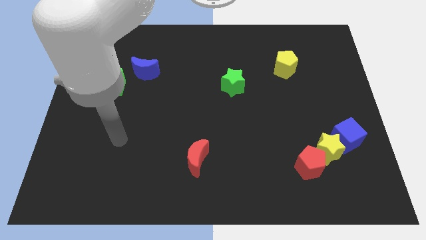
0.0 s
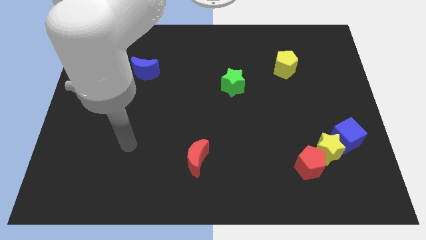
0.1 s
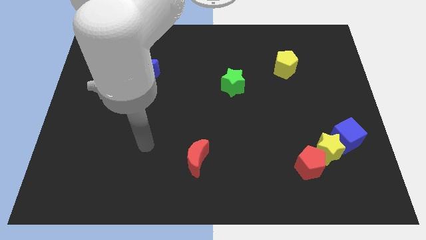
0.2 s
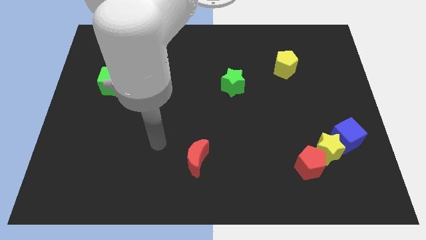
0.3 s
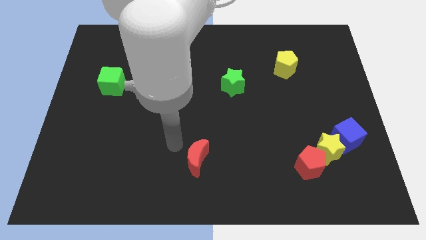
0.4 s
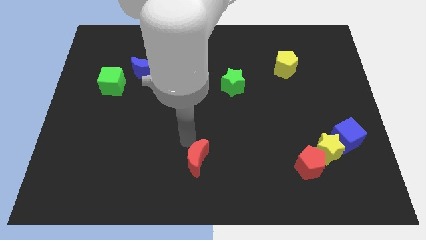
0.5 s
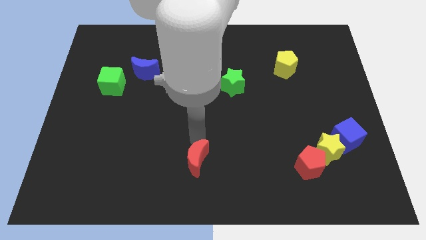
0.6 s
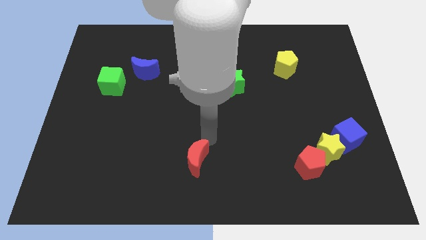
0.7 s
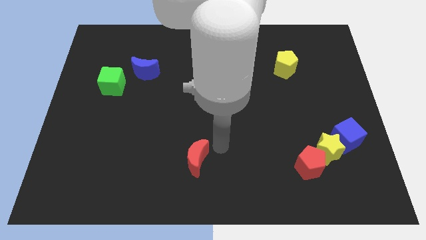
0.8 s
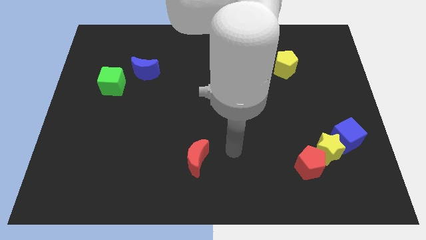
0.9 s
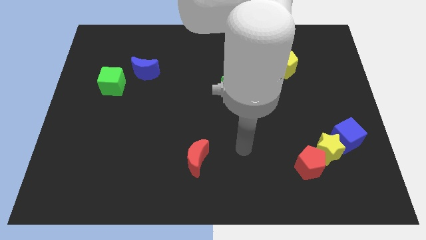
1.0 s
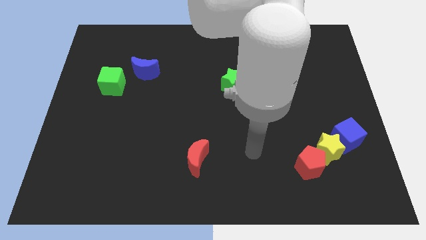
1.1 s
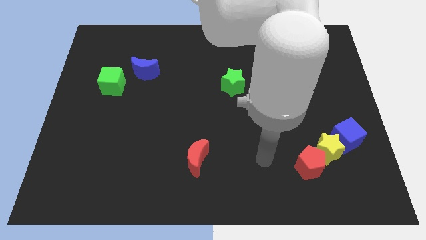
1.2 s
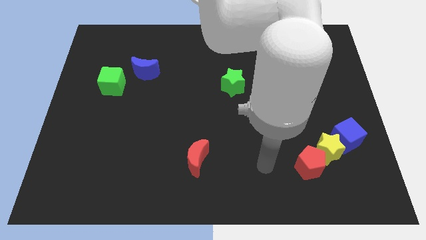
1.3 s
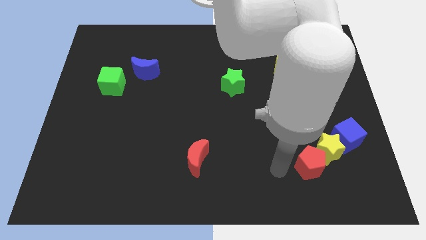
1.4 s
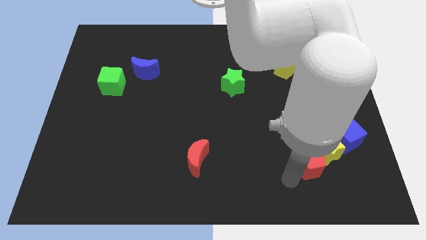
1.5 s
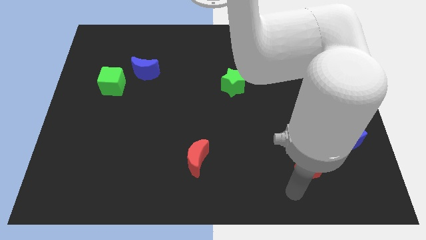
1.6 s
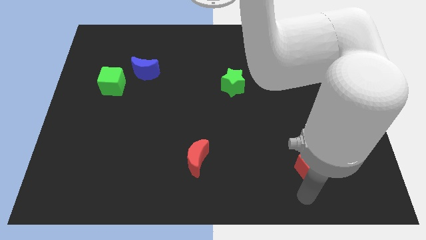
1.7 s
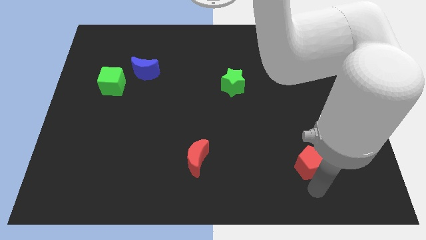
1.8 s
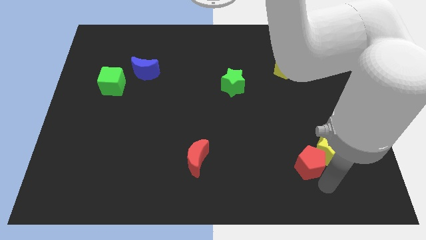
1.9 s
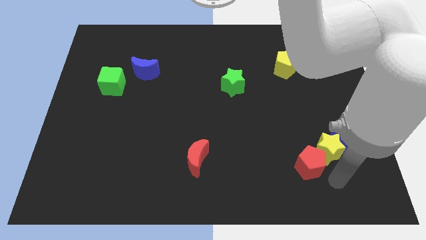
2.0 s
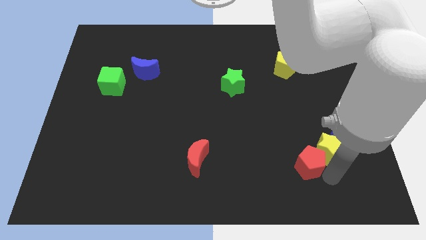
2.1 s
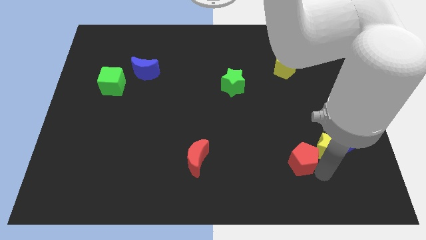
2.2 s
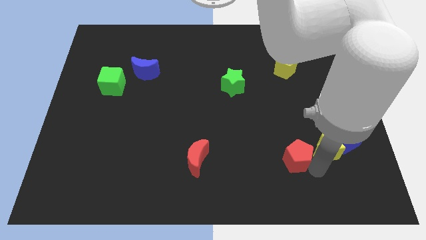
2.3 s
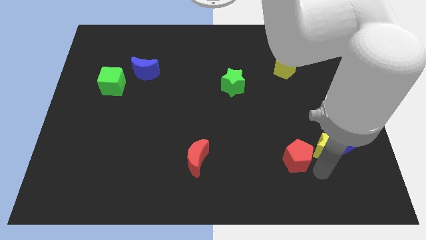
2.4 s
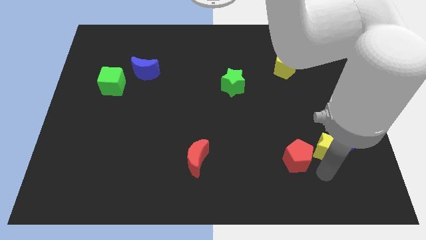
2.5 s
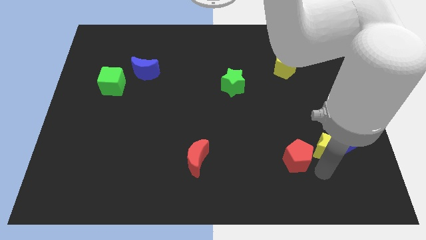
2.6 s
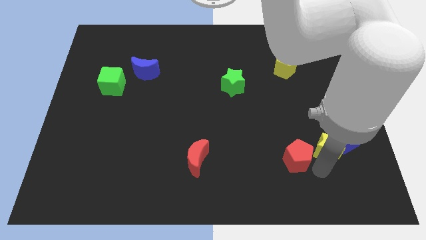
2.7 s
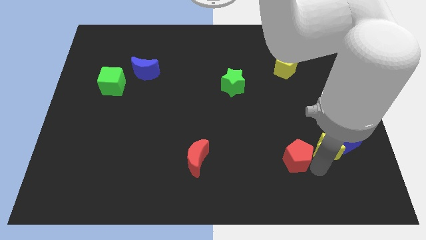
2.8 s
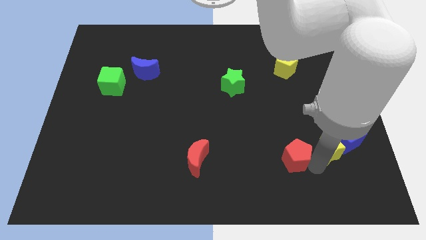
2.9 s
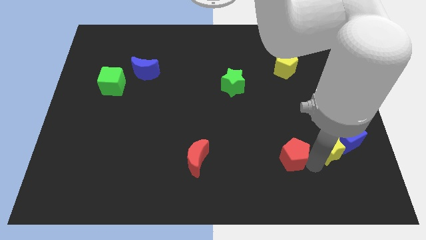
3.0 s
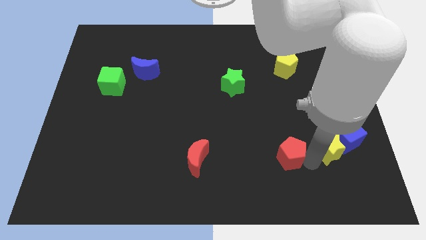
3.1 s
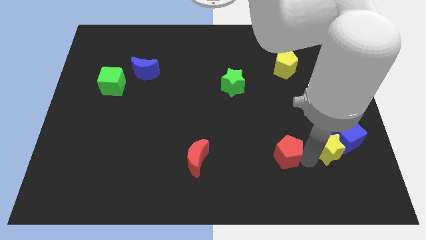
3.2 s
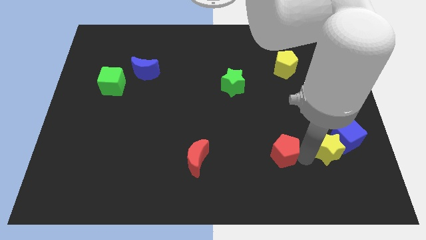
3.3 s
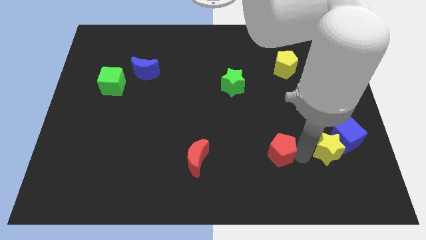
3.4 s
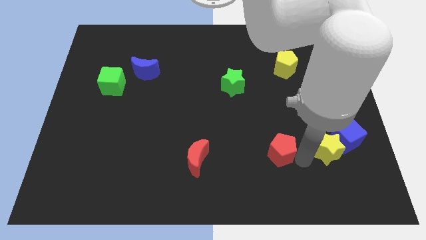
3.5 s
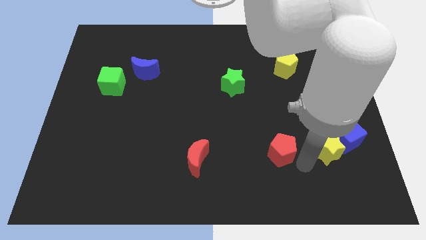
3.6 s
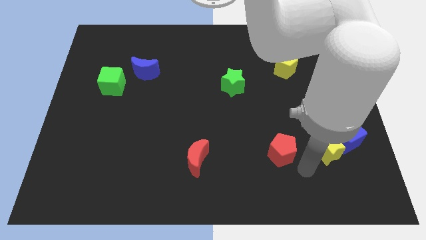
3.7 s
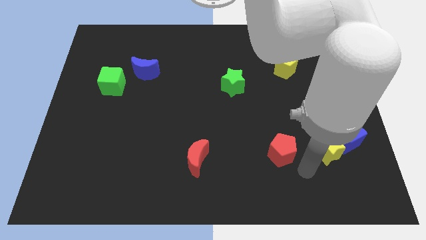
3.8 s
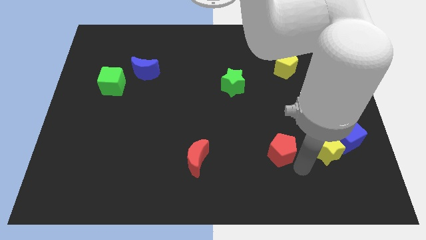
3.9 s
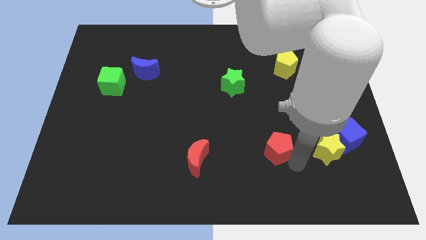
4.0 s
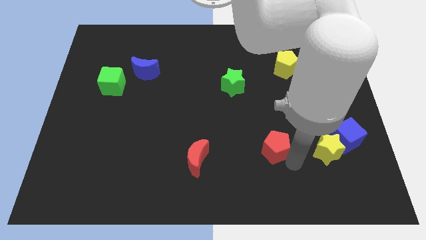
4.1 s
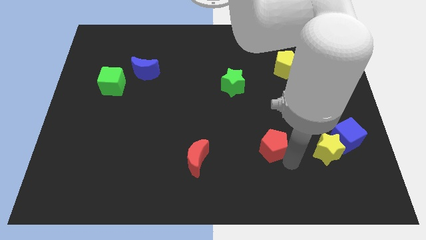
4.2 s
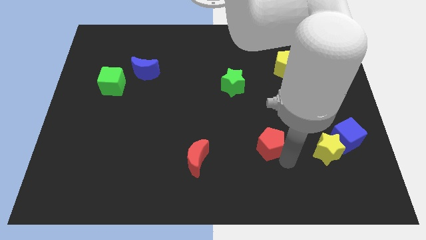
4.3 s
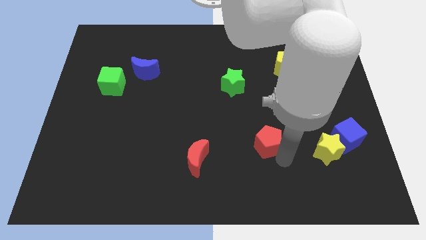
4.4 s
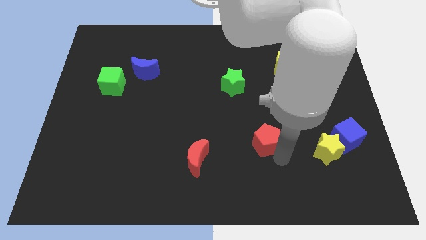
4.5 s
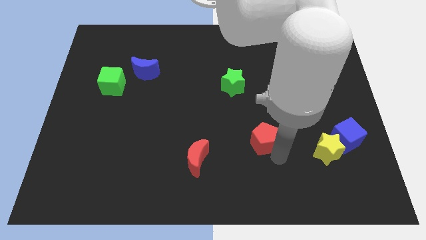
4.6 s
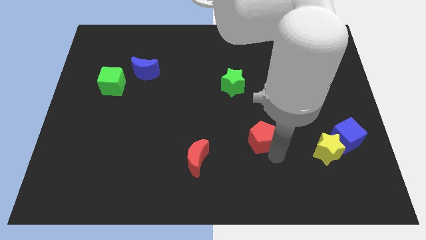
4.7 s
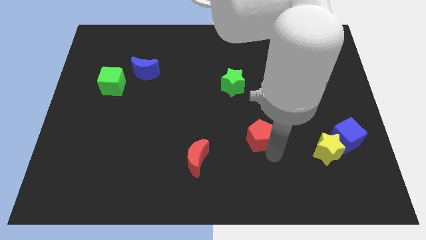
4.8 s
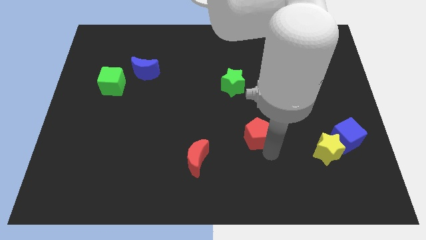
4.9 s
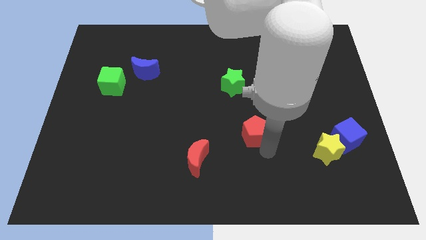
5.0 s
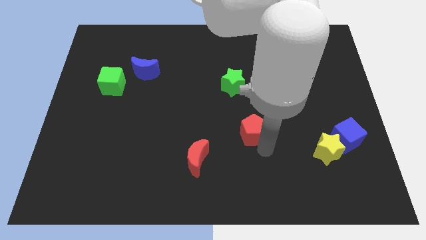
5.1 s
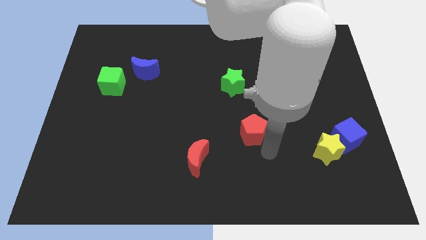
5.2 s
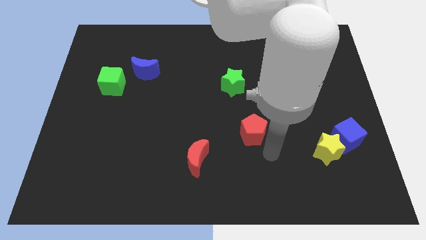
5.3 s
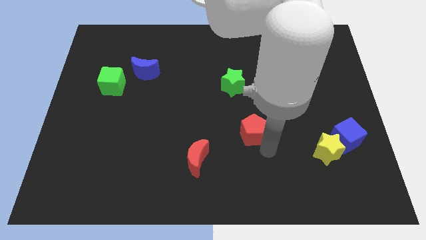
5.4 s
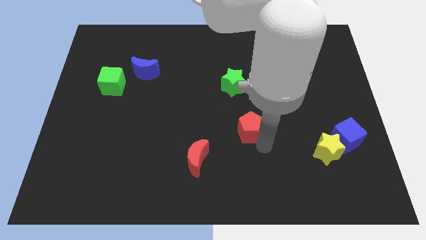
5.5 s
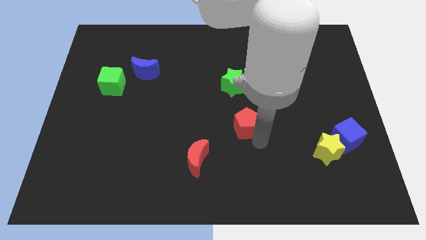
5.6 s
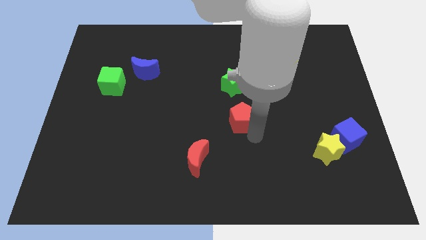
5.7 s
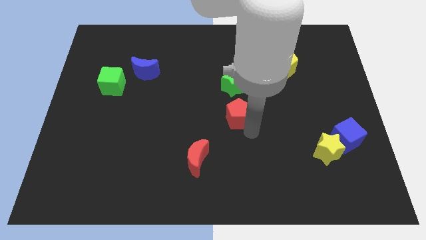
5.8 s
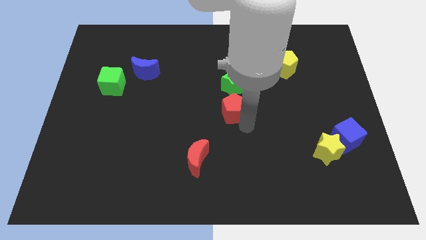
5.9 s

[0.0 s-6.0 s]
move the red pentagon up and then left

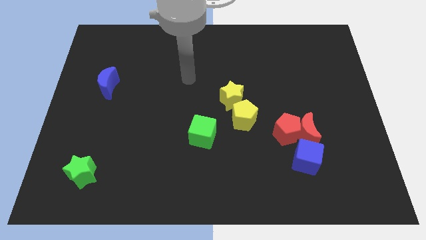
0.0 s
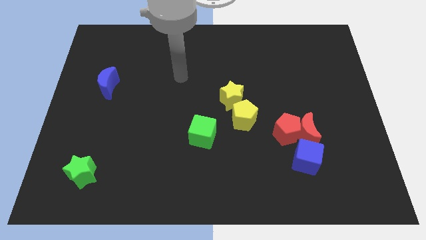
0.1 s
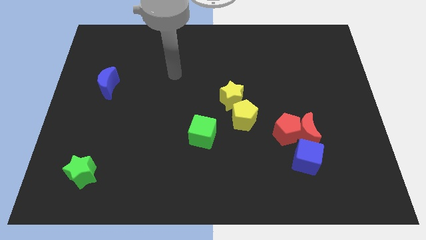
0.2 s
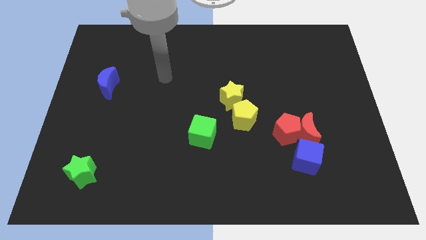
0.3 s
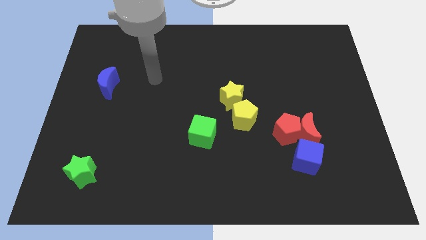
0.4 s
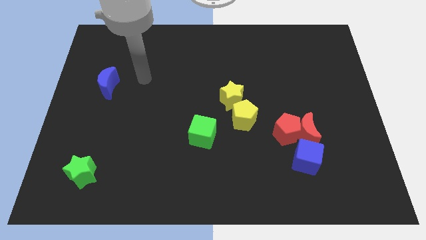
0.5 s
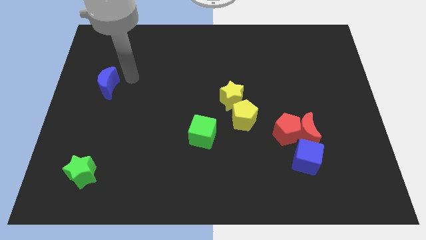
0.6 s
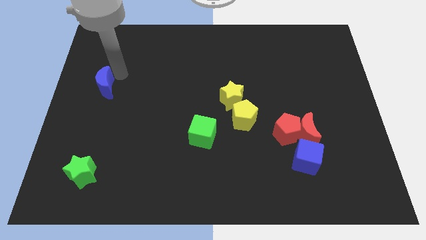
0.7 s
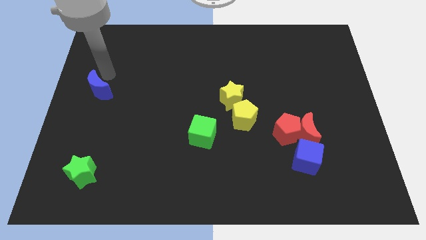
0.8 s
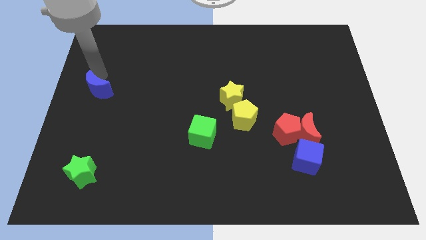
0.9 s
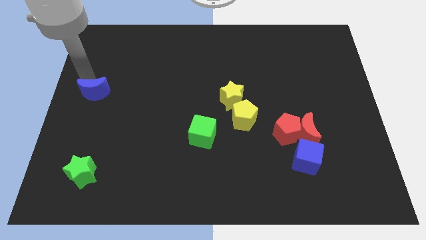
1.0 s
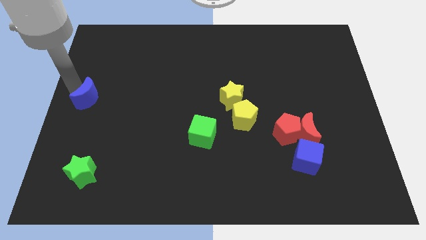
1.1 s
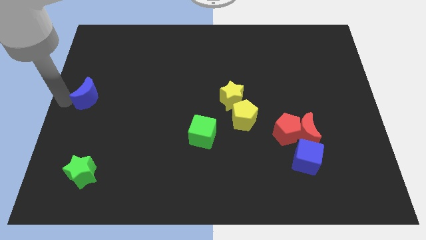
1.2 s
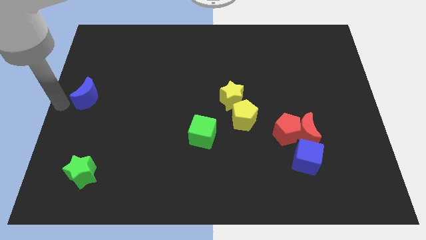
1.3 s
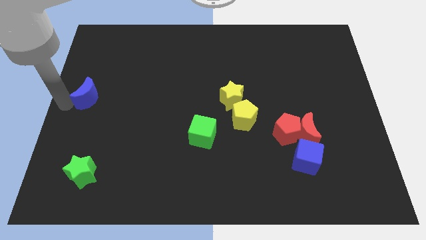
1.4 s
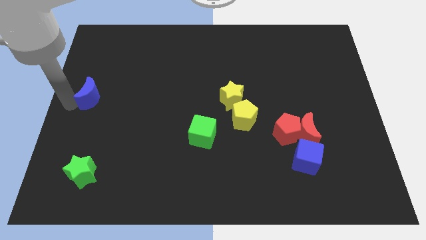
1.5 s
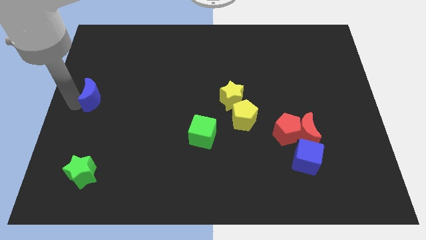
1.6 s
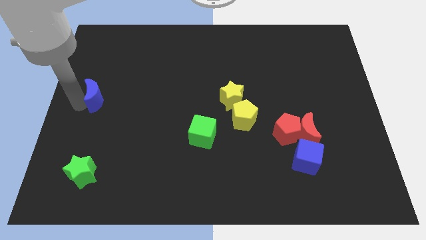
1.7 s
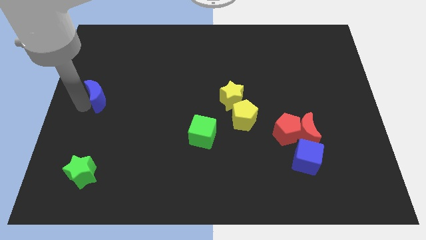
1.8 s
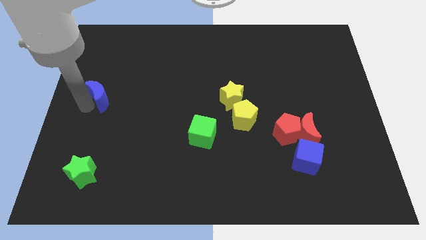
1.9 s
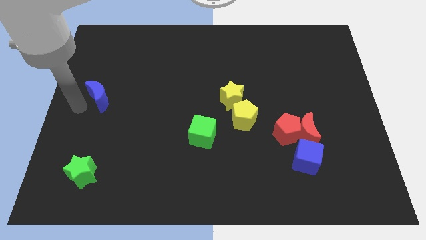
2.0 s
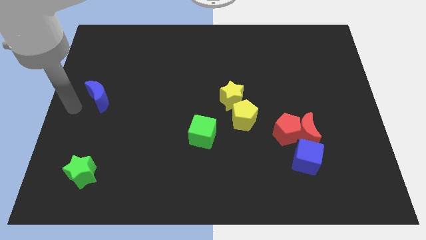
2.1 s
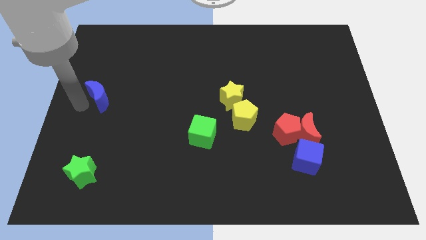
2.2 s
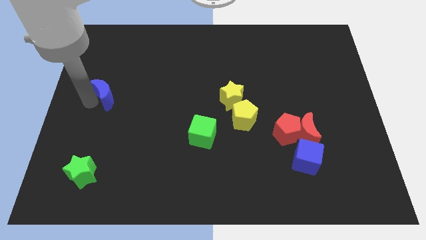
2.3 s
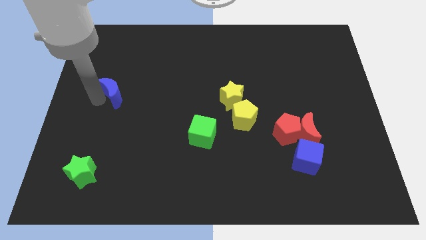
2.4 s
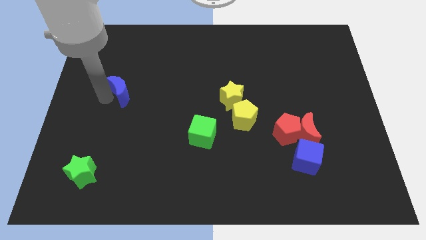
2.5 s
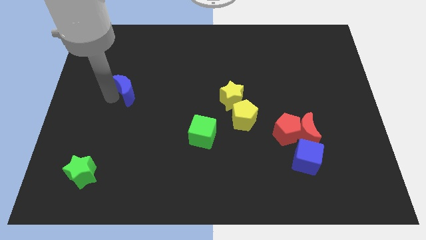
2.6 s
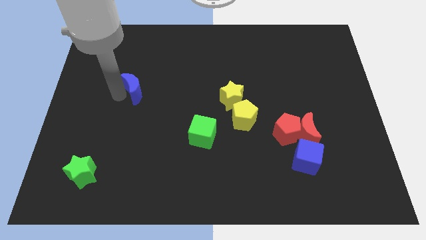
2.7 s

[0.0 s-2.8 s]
slide the blue moon slightly right
